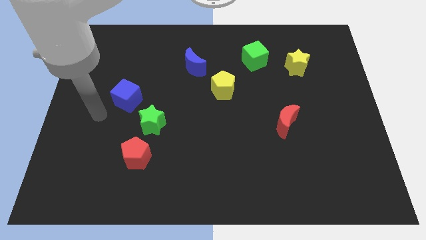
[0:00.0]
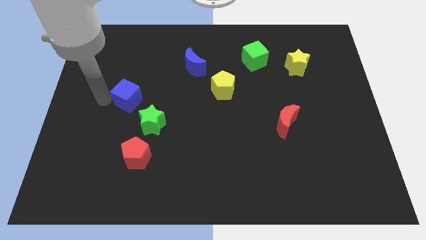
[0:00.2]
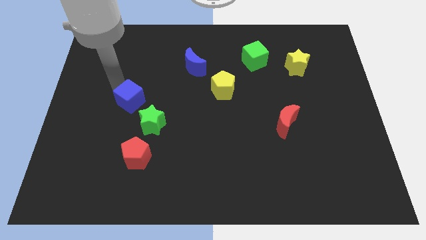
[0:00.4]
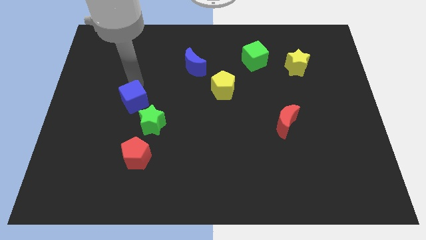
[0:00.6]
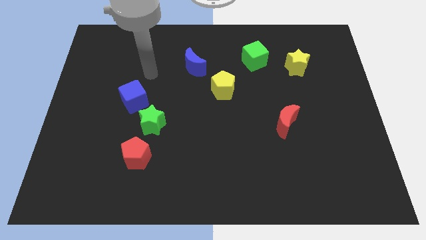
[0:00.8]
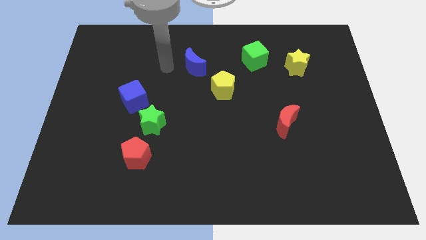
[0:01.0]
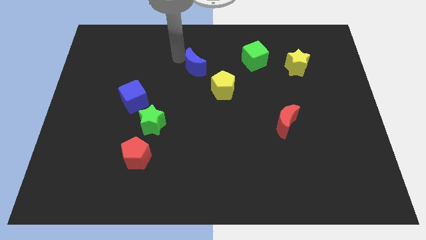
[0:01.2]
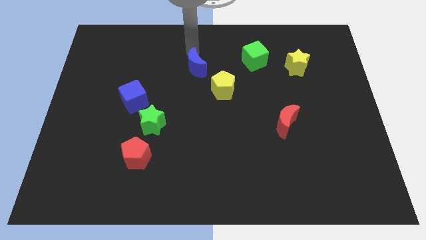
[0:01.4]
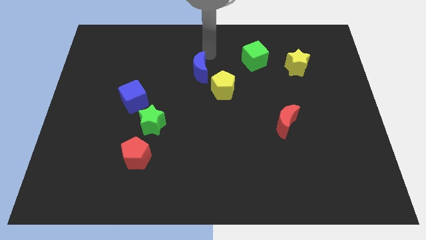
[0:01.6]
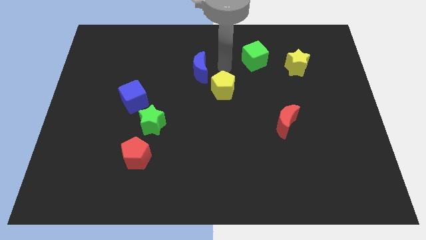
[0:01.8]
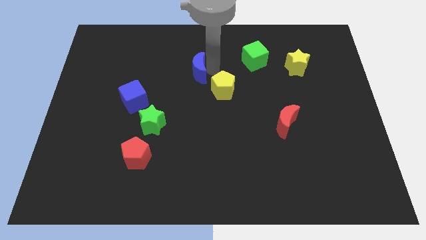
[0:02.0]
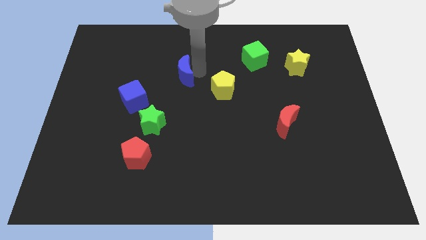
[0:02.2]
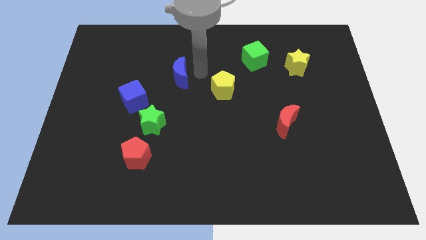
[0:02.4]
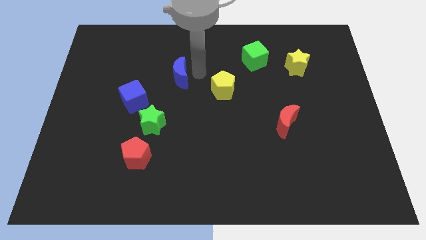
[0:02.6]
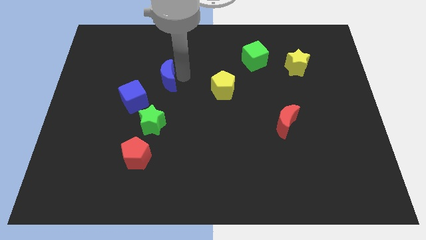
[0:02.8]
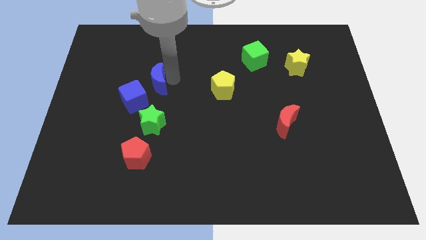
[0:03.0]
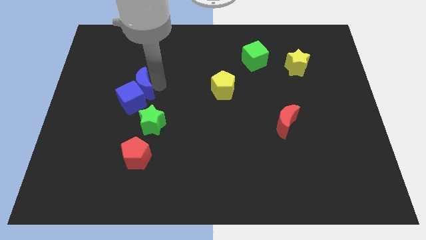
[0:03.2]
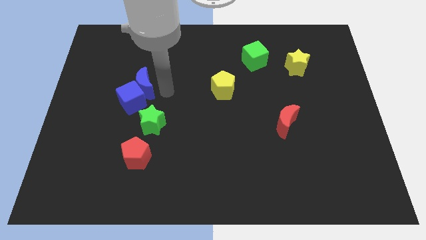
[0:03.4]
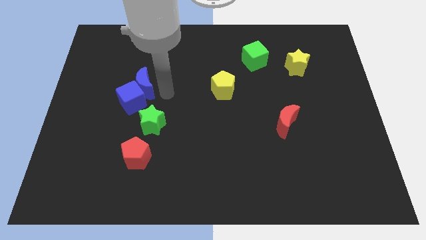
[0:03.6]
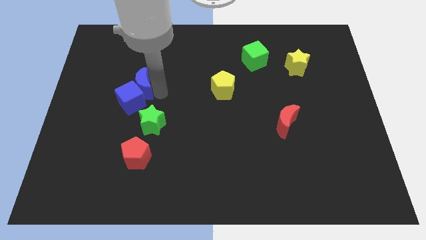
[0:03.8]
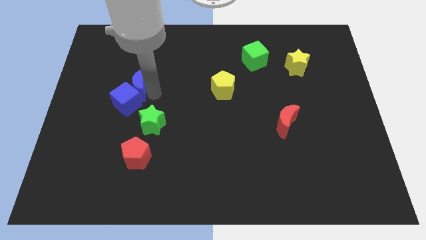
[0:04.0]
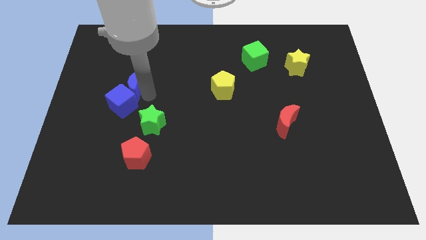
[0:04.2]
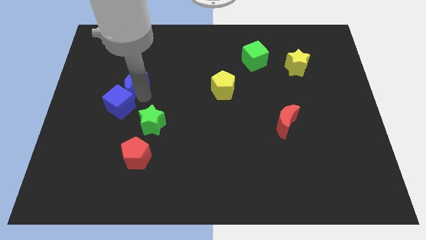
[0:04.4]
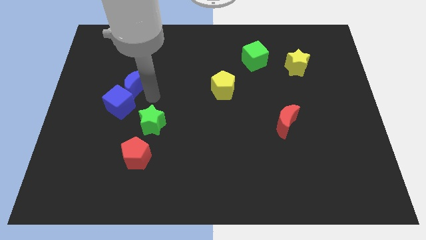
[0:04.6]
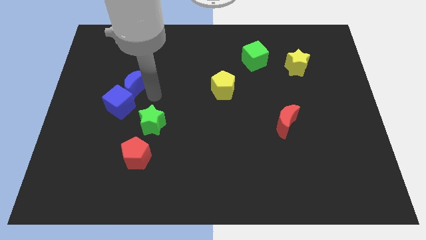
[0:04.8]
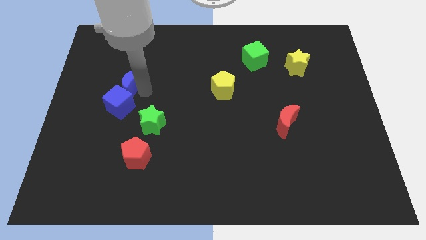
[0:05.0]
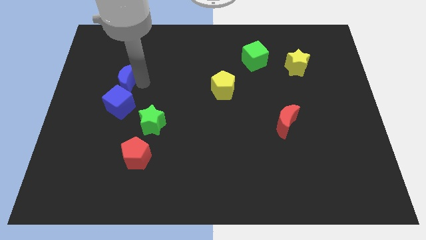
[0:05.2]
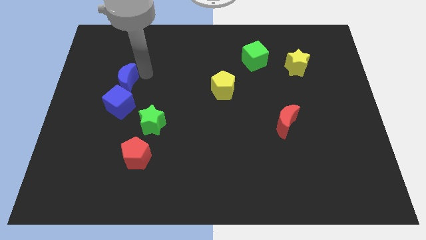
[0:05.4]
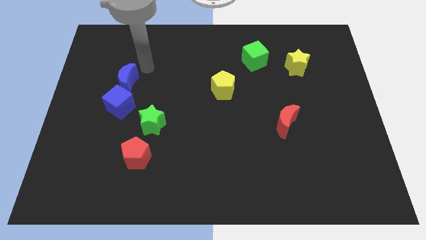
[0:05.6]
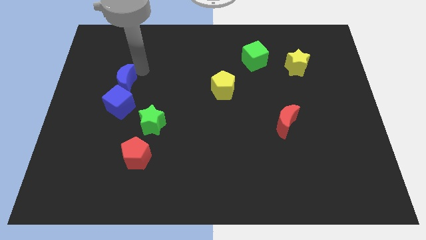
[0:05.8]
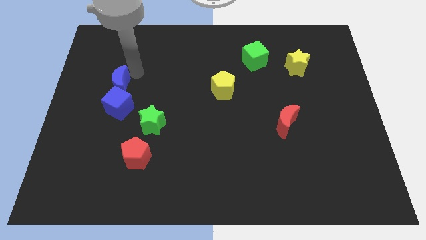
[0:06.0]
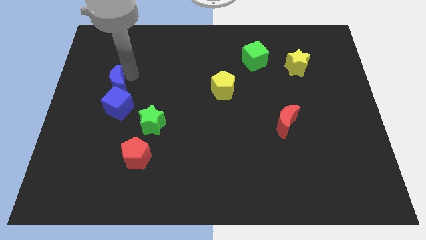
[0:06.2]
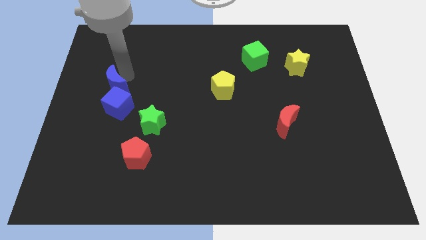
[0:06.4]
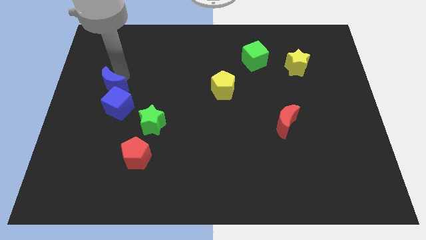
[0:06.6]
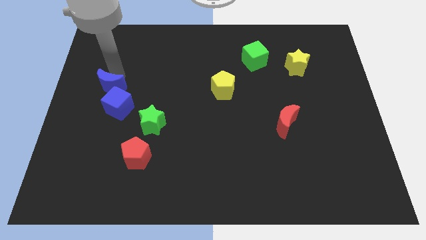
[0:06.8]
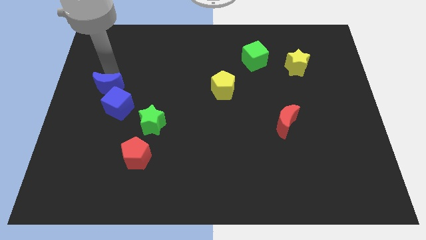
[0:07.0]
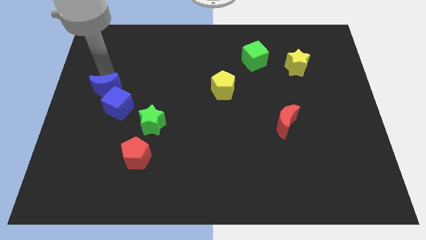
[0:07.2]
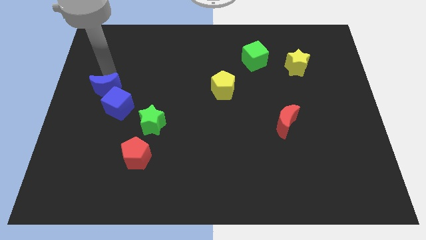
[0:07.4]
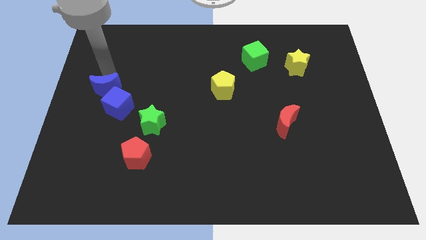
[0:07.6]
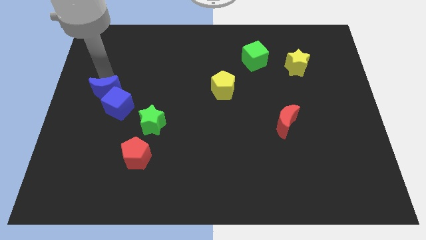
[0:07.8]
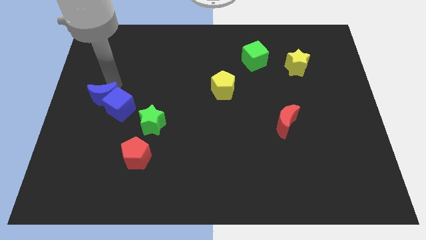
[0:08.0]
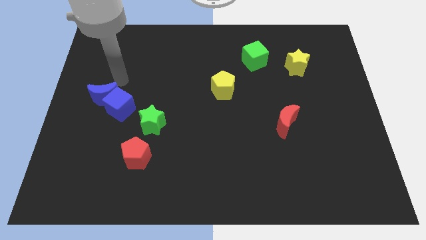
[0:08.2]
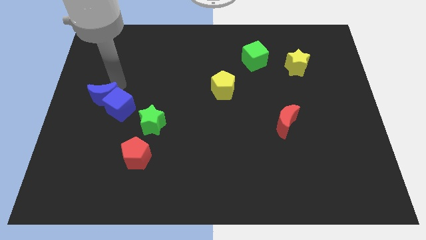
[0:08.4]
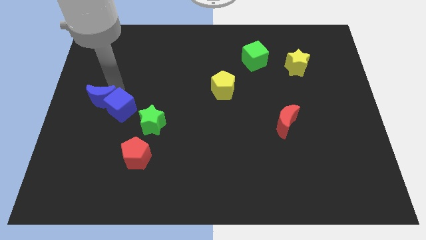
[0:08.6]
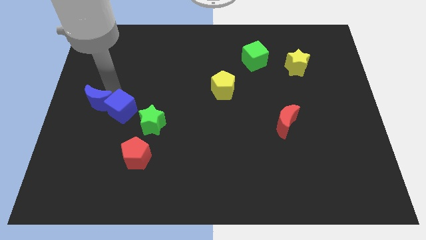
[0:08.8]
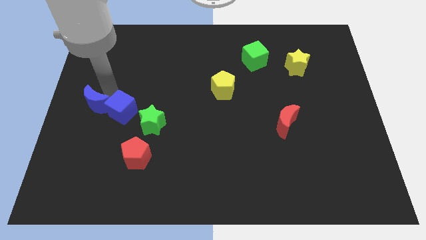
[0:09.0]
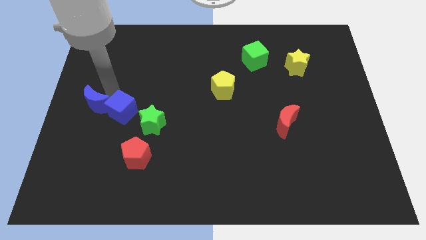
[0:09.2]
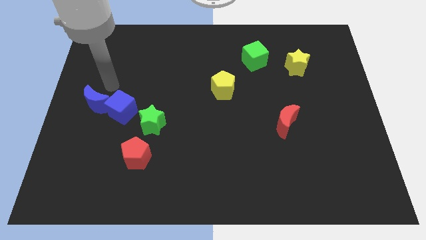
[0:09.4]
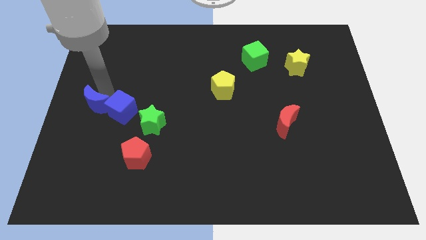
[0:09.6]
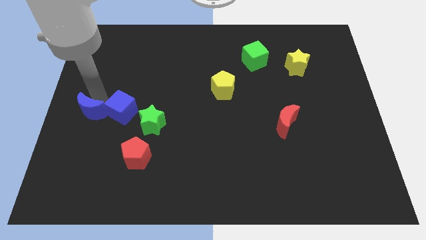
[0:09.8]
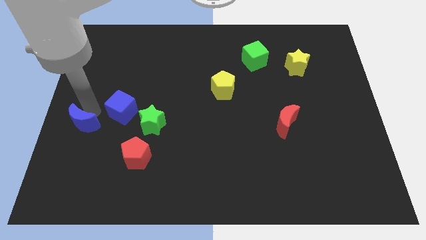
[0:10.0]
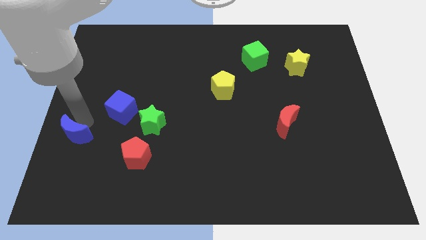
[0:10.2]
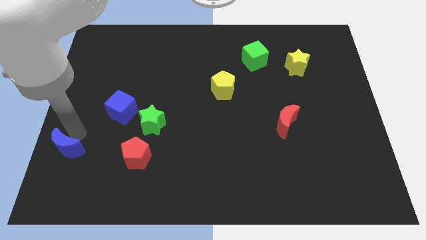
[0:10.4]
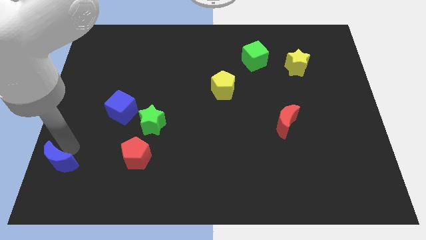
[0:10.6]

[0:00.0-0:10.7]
push the blue moon to the bottom left
